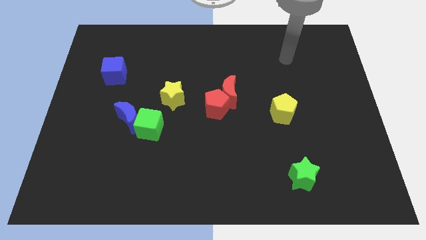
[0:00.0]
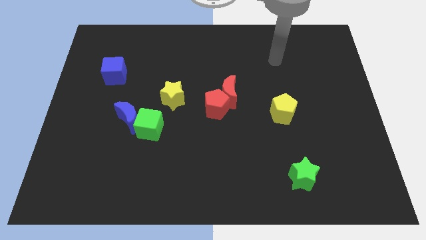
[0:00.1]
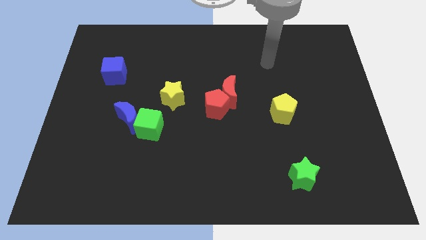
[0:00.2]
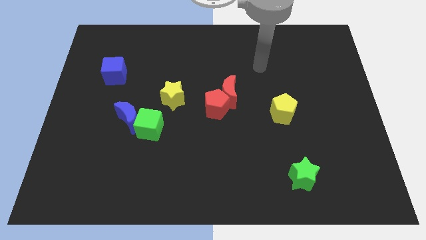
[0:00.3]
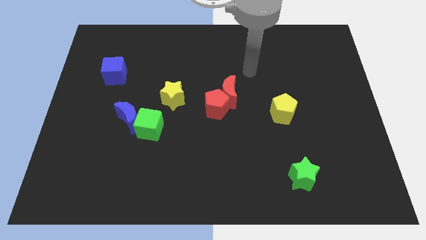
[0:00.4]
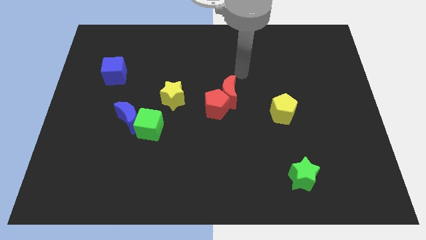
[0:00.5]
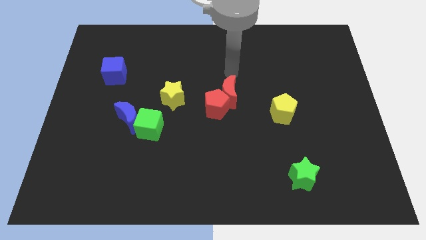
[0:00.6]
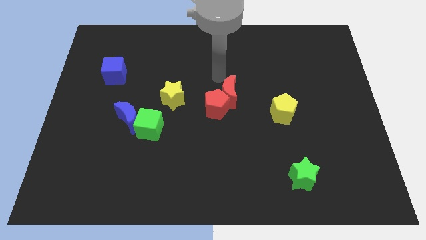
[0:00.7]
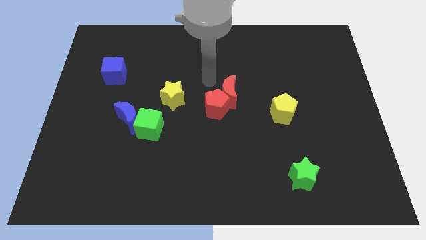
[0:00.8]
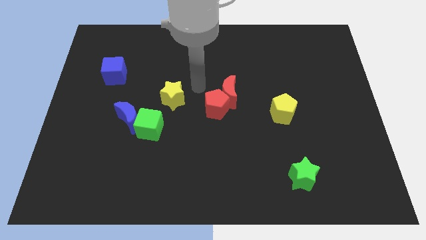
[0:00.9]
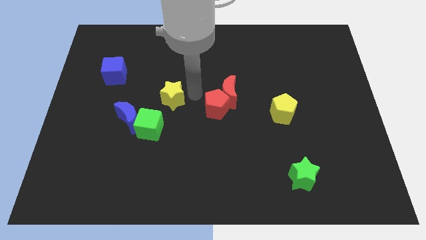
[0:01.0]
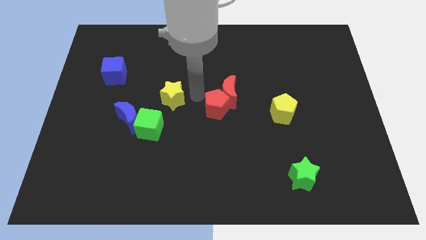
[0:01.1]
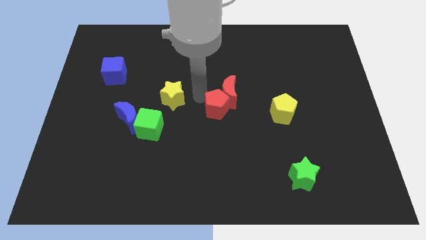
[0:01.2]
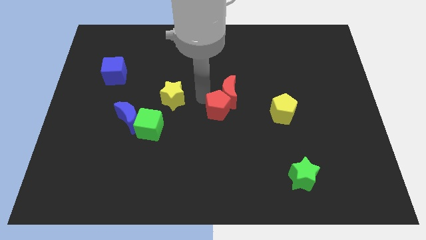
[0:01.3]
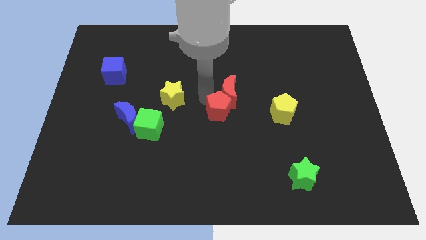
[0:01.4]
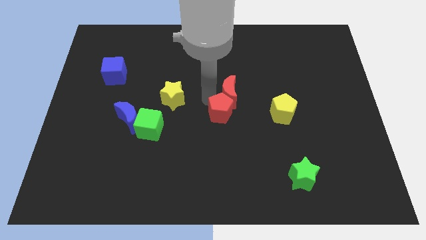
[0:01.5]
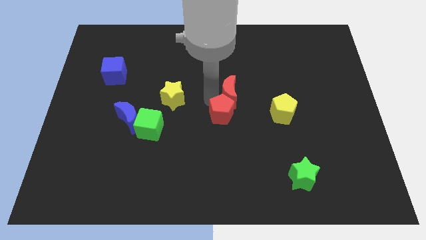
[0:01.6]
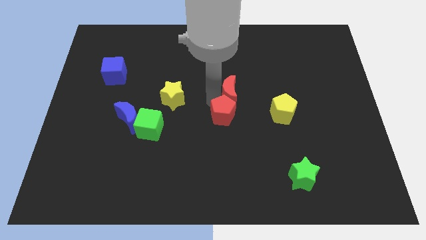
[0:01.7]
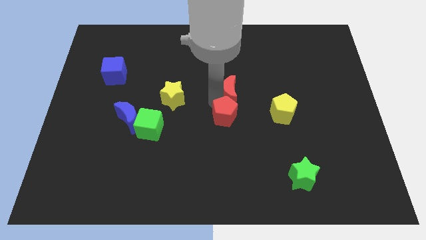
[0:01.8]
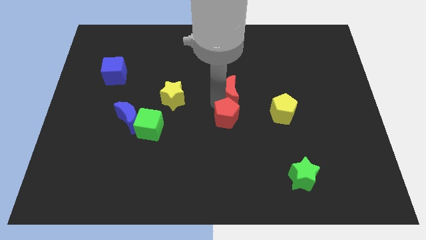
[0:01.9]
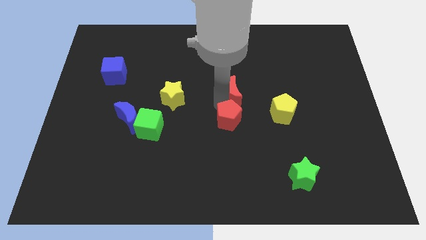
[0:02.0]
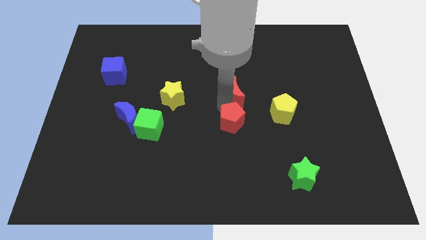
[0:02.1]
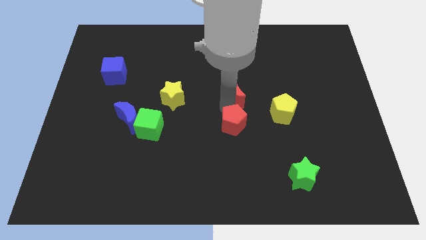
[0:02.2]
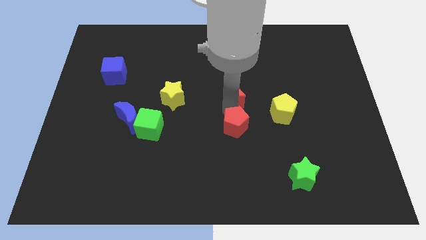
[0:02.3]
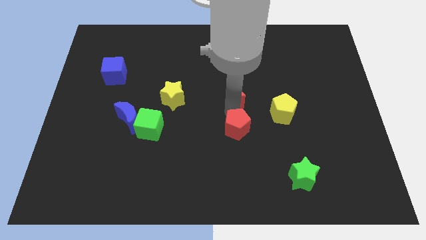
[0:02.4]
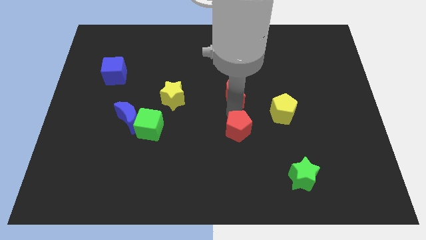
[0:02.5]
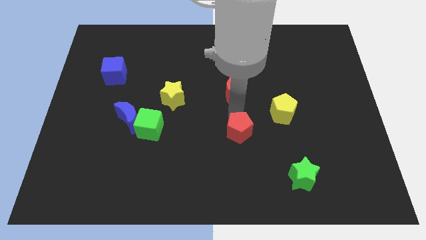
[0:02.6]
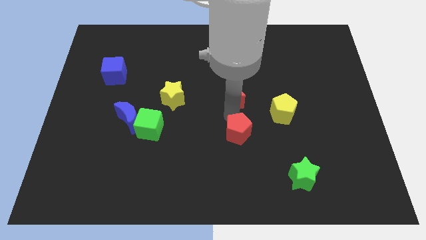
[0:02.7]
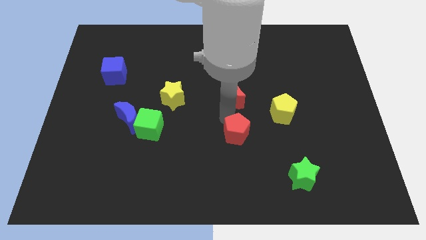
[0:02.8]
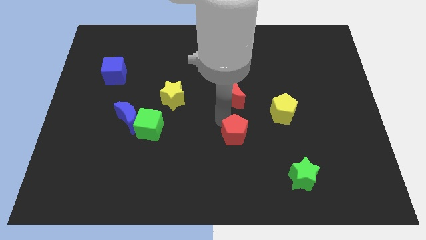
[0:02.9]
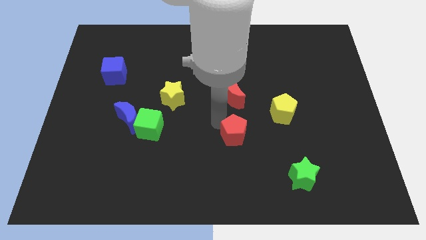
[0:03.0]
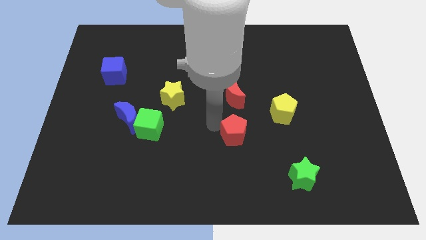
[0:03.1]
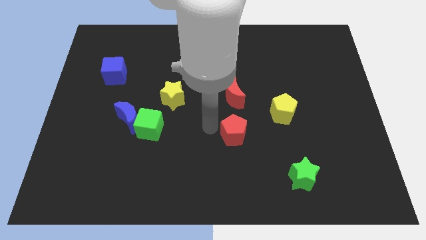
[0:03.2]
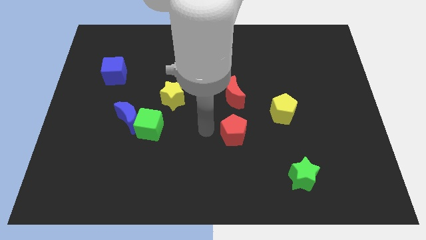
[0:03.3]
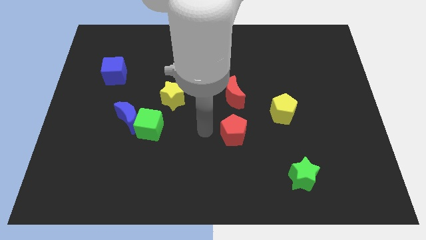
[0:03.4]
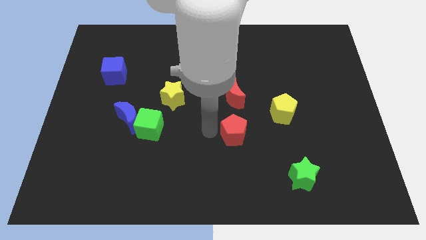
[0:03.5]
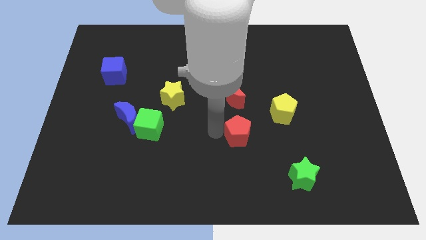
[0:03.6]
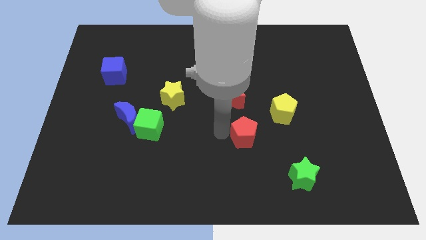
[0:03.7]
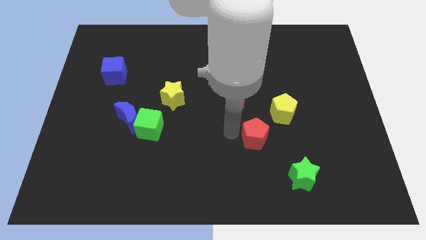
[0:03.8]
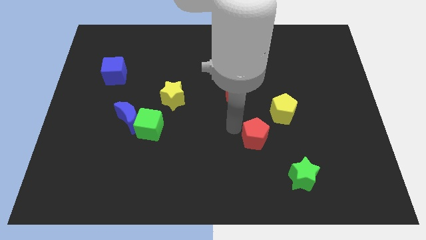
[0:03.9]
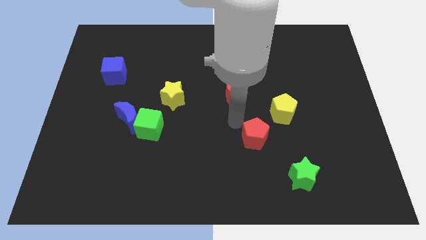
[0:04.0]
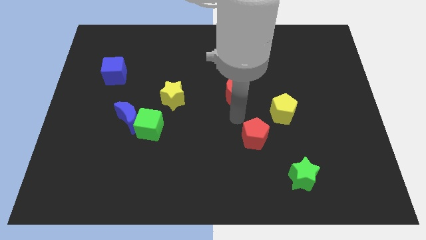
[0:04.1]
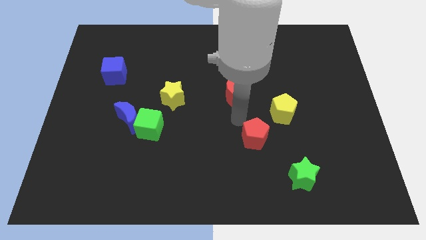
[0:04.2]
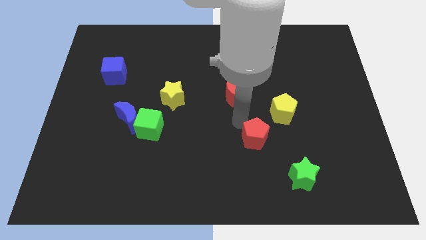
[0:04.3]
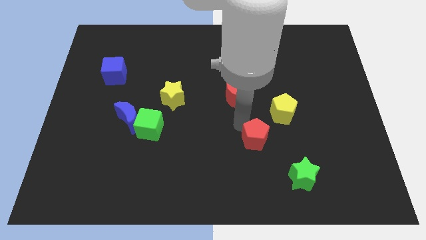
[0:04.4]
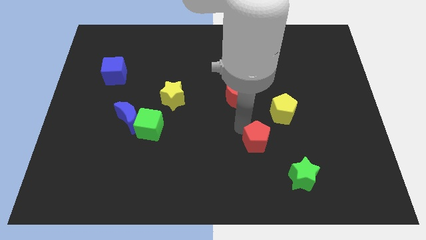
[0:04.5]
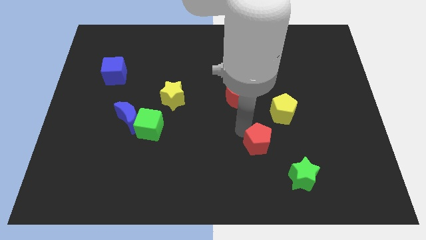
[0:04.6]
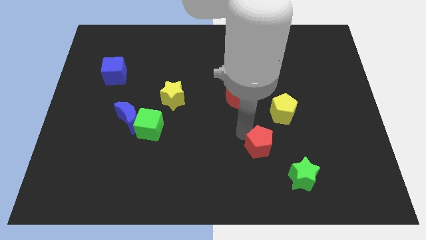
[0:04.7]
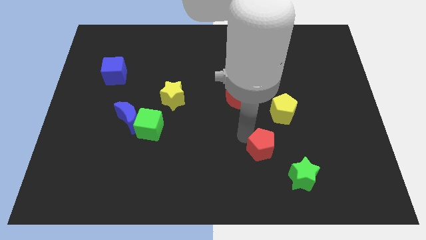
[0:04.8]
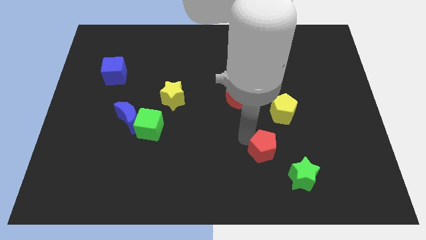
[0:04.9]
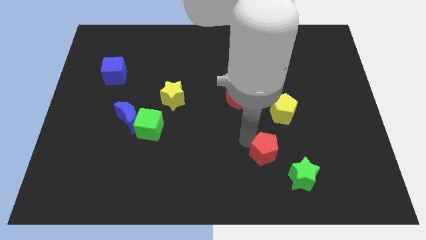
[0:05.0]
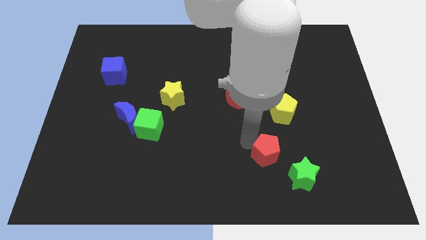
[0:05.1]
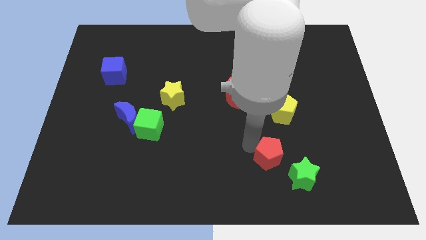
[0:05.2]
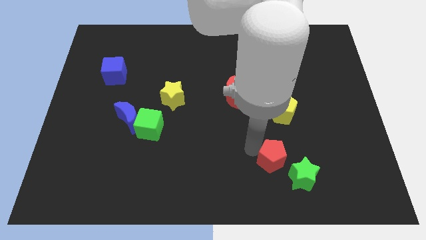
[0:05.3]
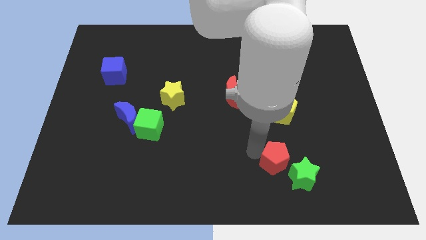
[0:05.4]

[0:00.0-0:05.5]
slide the red pentagon to the green star
